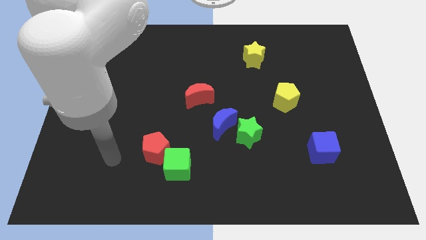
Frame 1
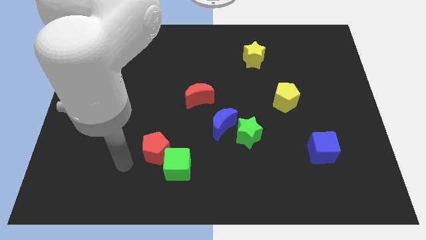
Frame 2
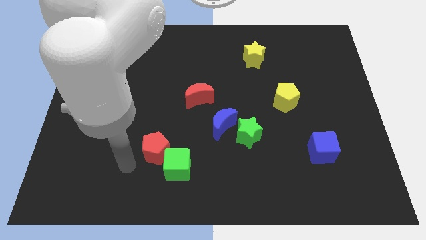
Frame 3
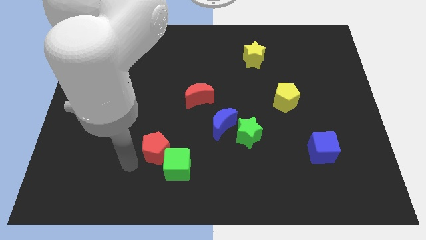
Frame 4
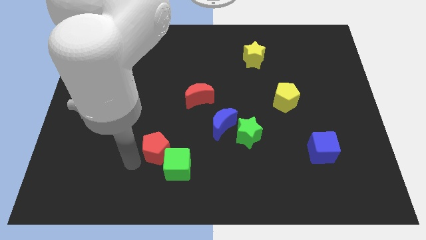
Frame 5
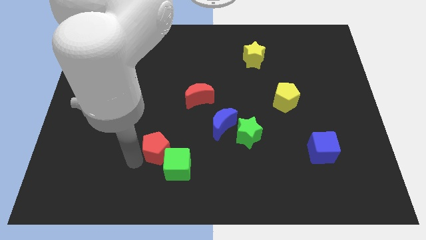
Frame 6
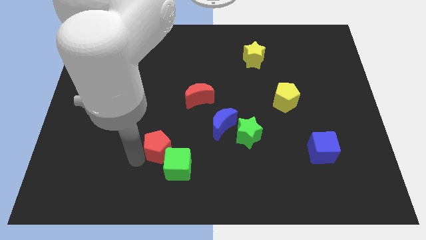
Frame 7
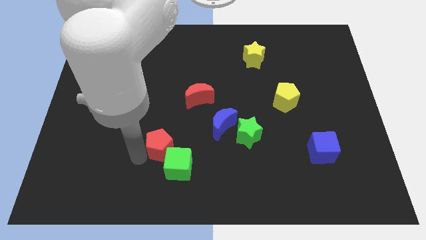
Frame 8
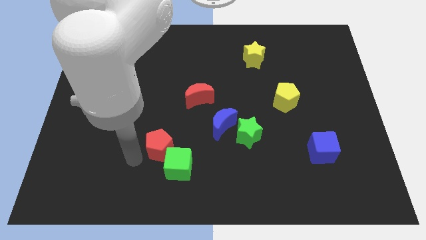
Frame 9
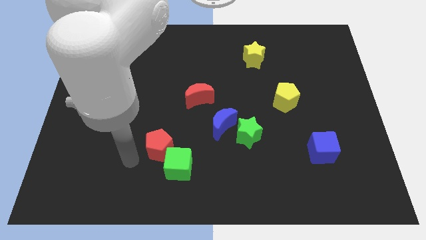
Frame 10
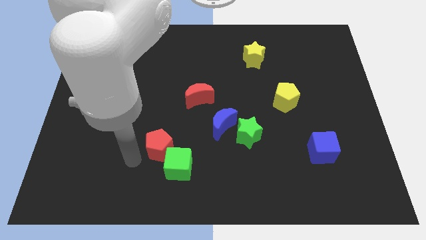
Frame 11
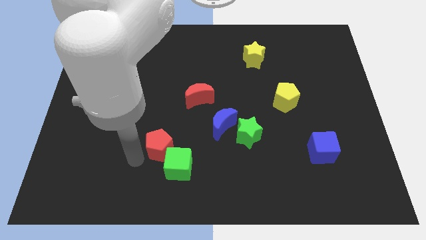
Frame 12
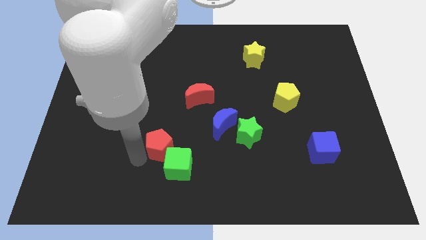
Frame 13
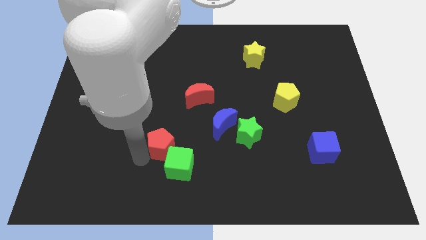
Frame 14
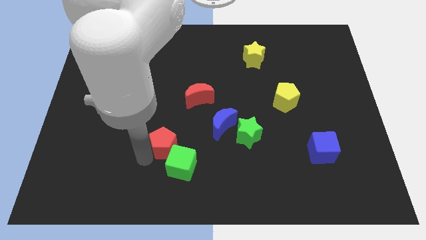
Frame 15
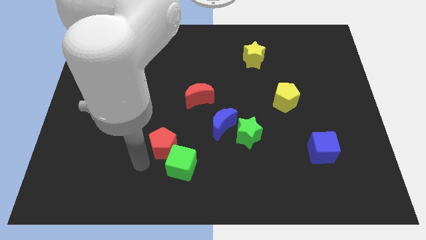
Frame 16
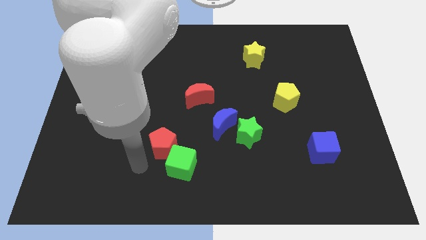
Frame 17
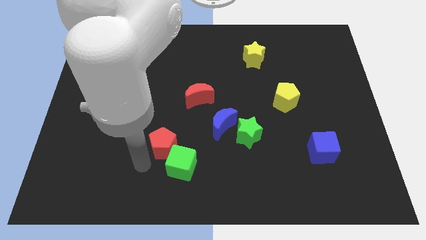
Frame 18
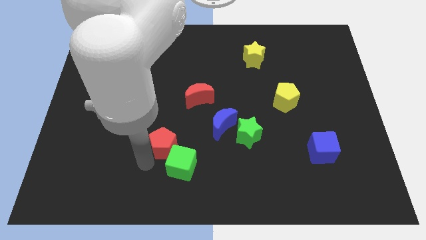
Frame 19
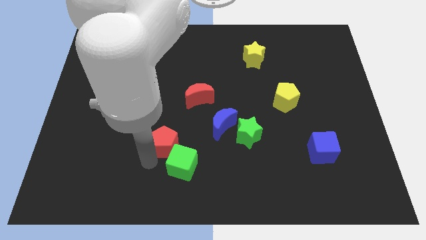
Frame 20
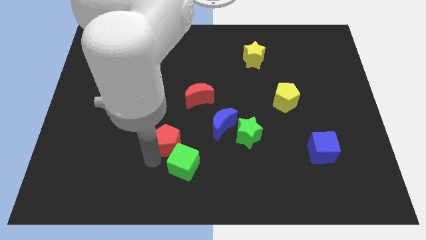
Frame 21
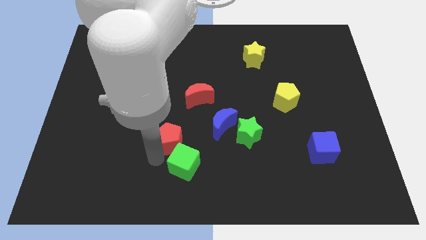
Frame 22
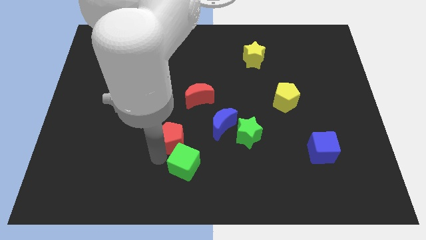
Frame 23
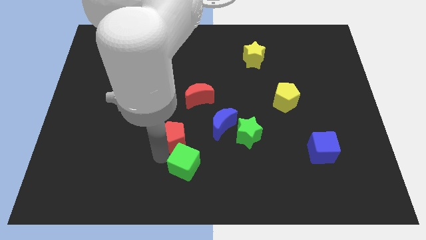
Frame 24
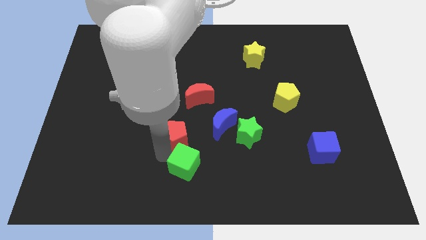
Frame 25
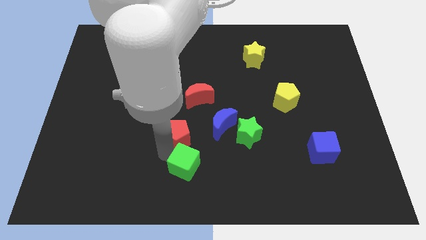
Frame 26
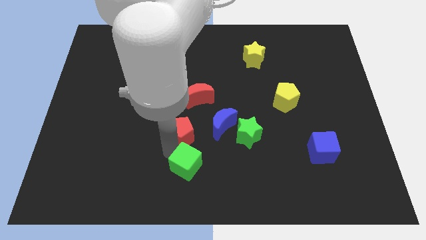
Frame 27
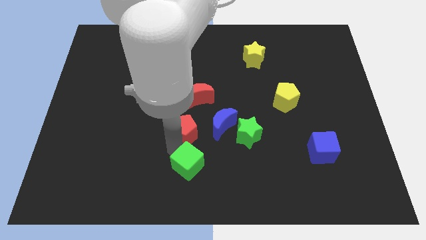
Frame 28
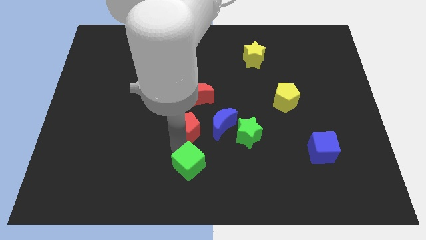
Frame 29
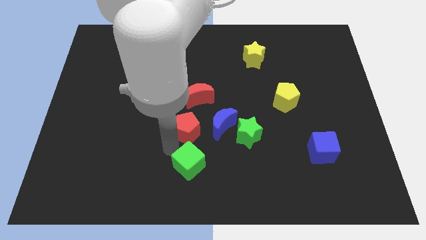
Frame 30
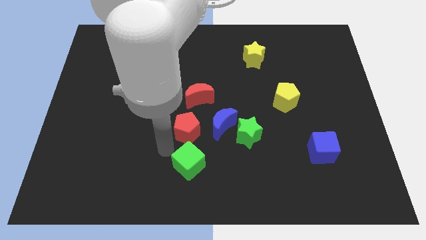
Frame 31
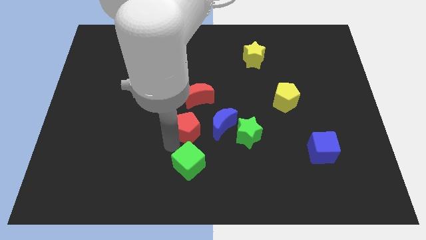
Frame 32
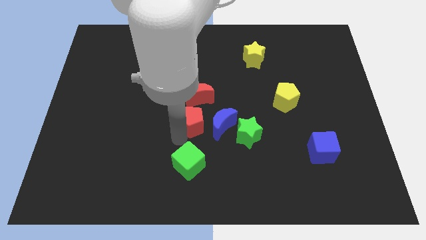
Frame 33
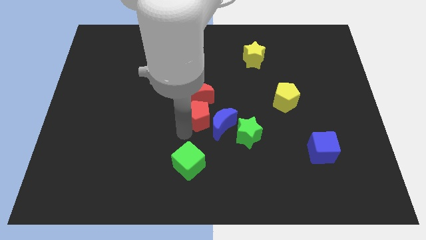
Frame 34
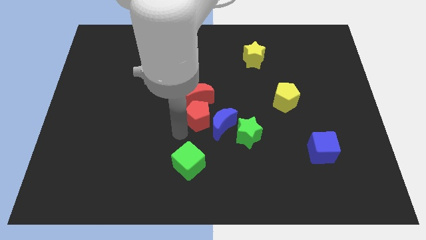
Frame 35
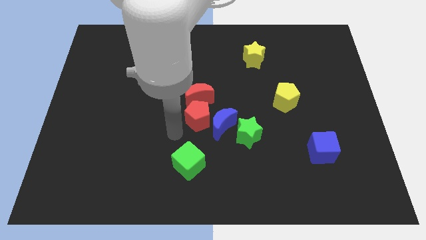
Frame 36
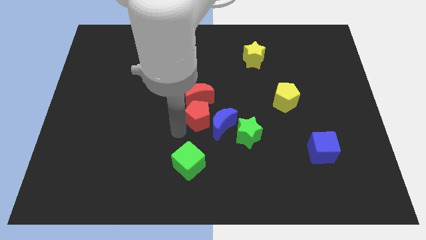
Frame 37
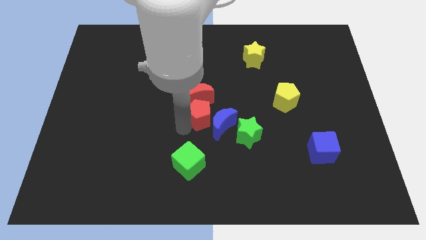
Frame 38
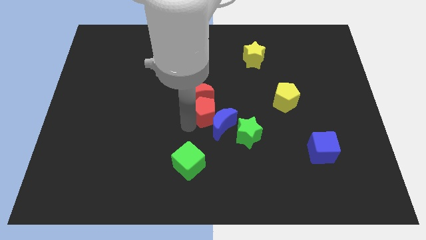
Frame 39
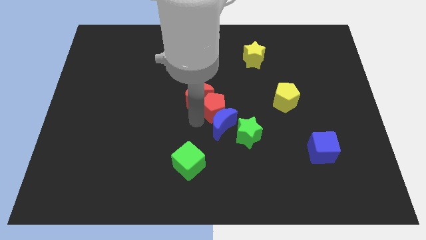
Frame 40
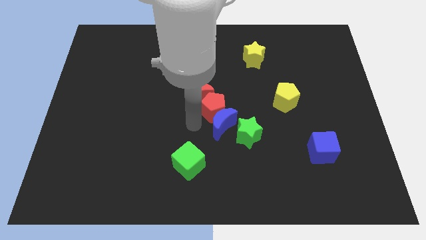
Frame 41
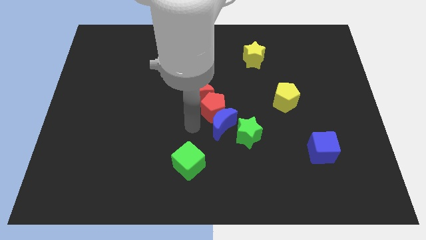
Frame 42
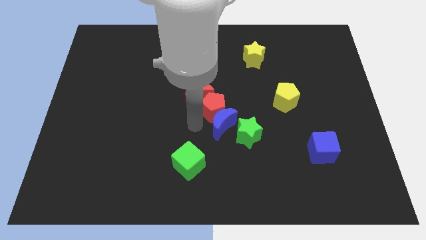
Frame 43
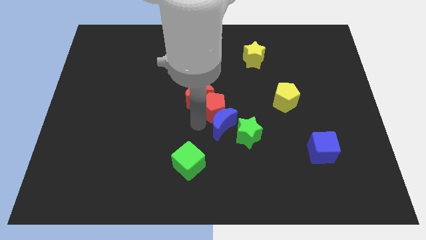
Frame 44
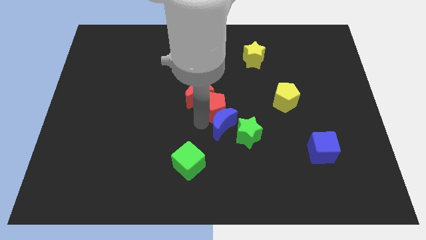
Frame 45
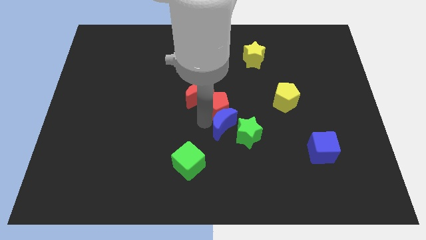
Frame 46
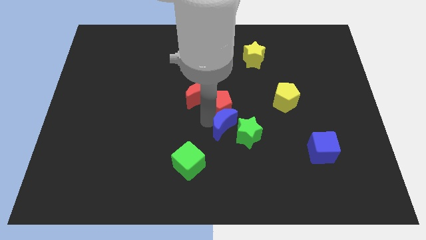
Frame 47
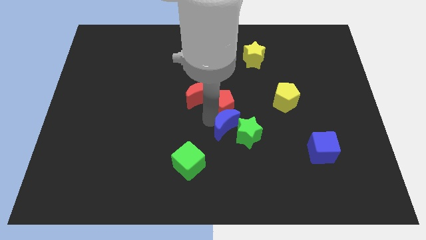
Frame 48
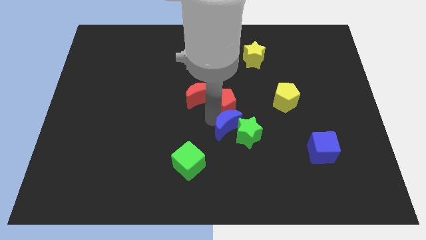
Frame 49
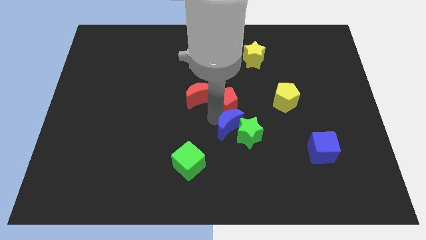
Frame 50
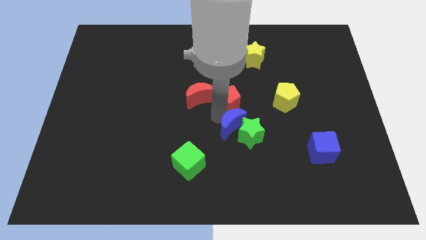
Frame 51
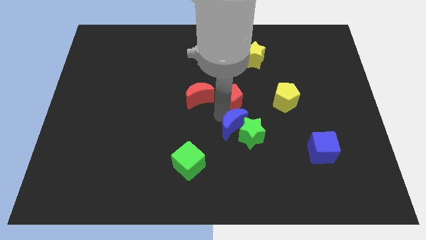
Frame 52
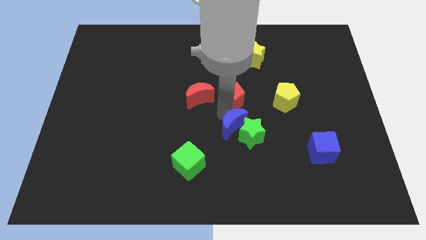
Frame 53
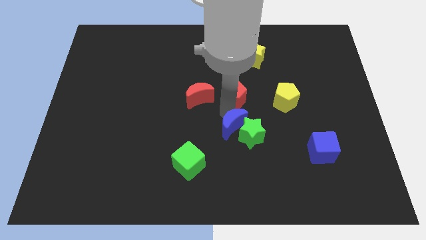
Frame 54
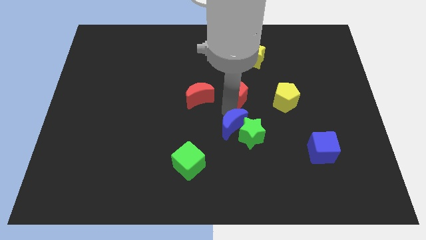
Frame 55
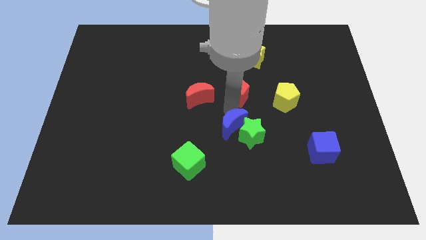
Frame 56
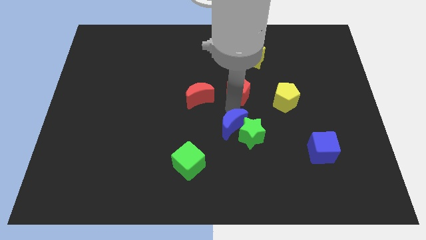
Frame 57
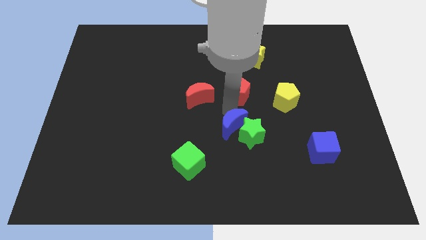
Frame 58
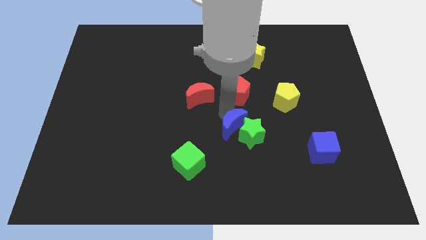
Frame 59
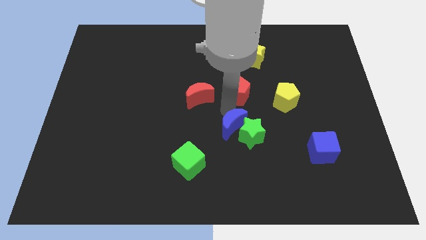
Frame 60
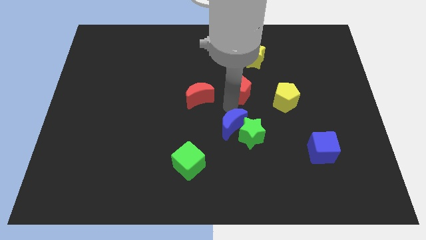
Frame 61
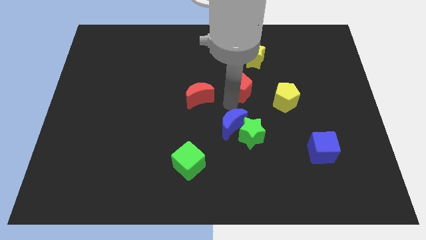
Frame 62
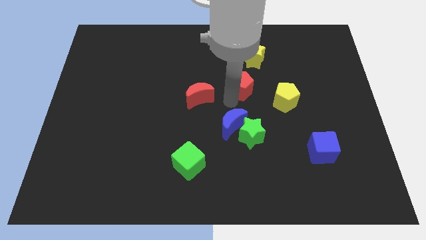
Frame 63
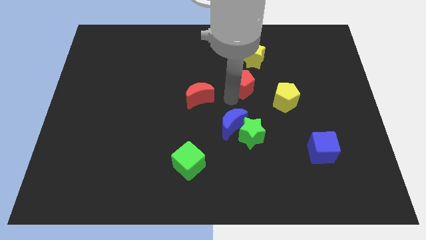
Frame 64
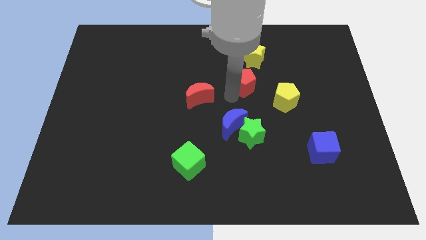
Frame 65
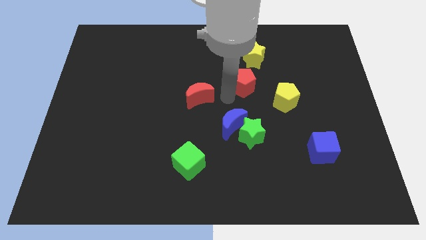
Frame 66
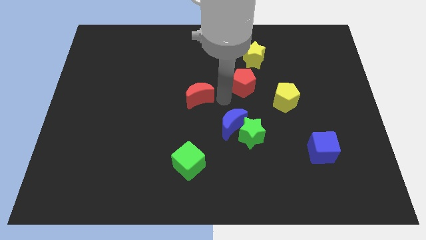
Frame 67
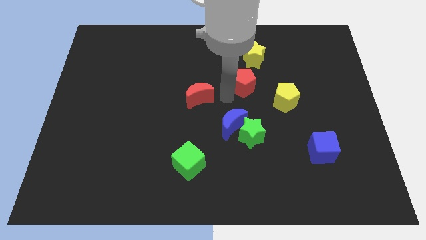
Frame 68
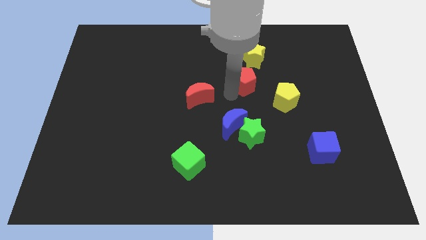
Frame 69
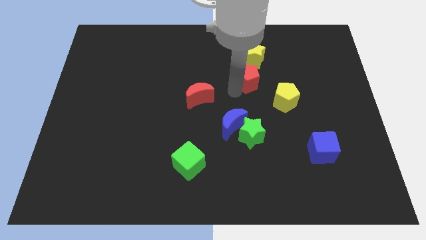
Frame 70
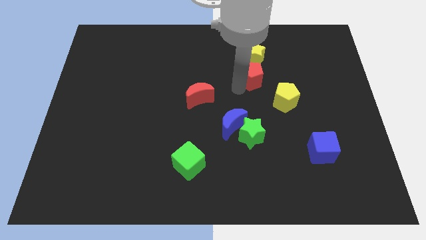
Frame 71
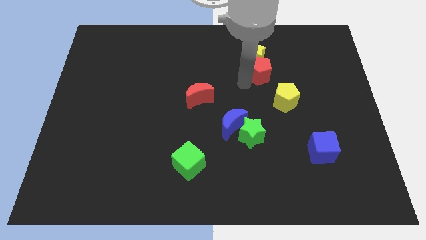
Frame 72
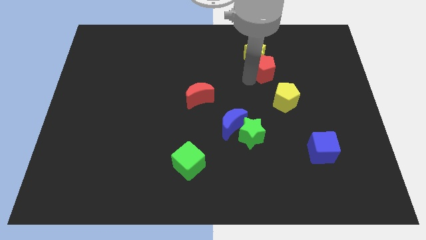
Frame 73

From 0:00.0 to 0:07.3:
push the red pentagon above the yellow pentagon
